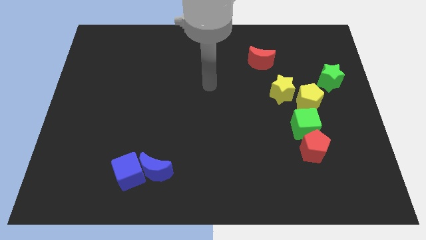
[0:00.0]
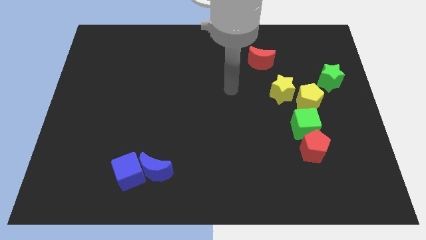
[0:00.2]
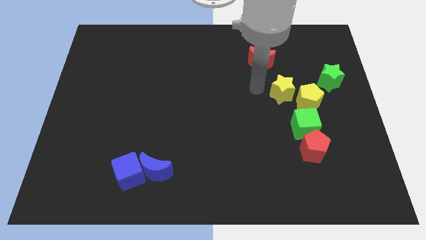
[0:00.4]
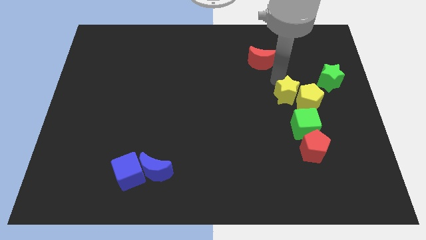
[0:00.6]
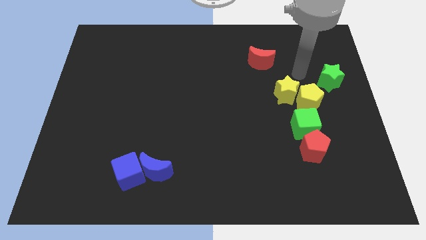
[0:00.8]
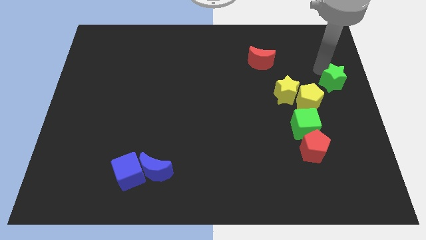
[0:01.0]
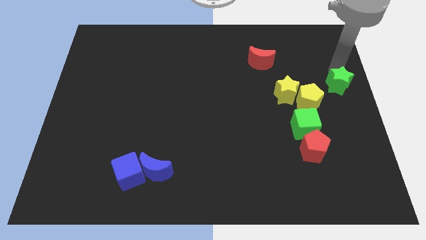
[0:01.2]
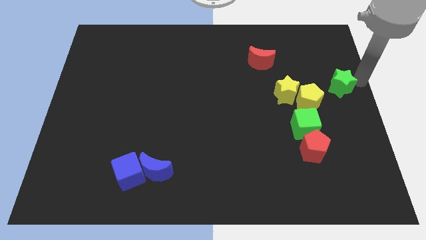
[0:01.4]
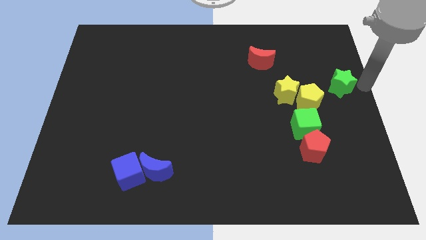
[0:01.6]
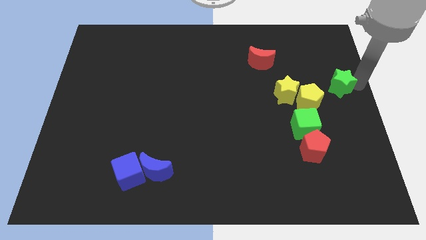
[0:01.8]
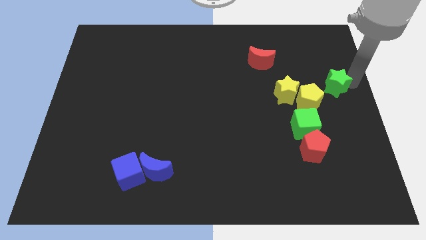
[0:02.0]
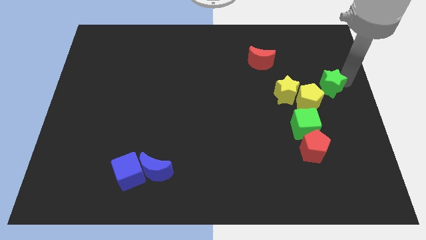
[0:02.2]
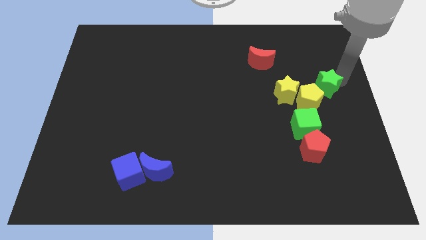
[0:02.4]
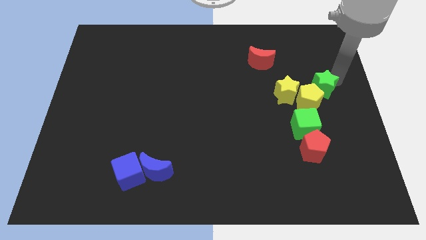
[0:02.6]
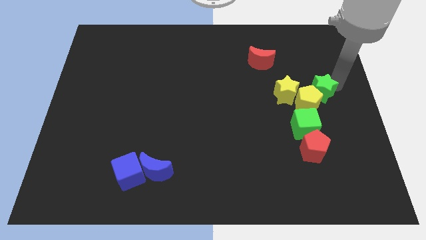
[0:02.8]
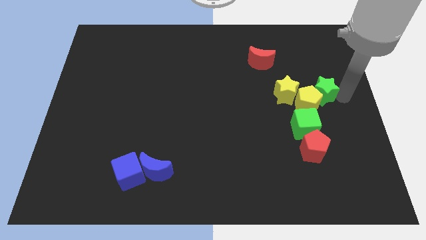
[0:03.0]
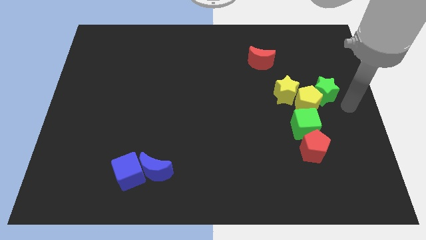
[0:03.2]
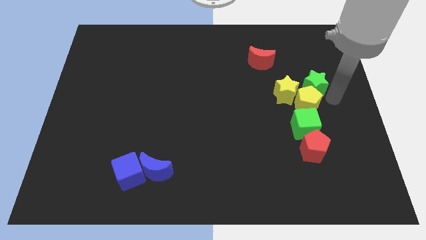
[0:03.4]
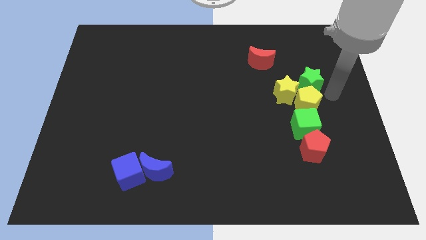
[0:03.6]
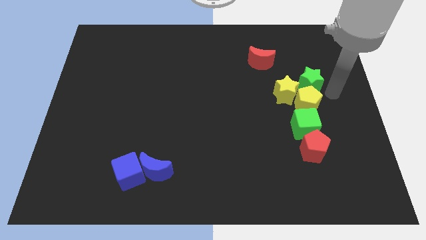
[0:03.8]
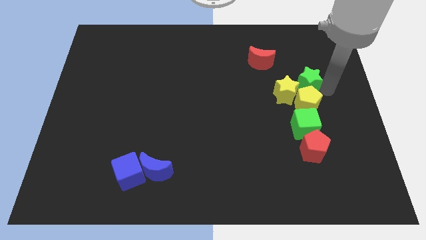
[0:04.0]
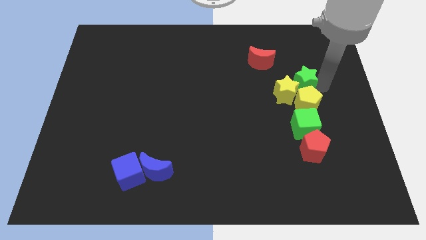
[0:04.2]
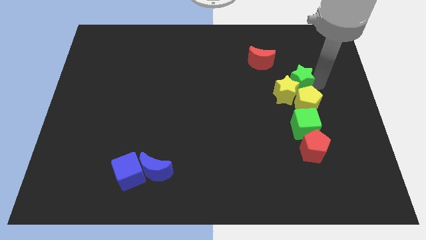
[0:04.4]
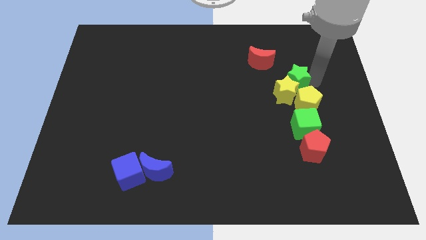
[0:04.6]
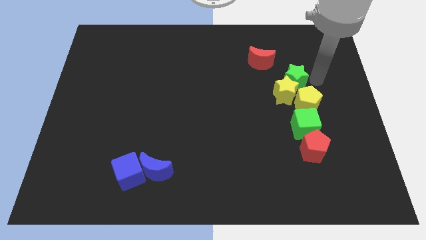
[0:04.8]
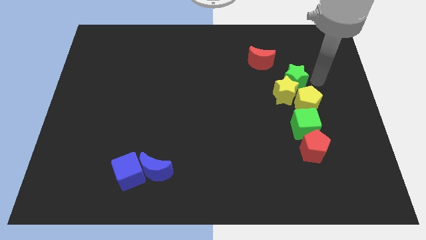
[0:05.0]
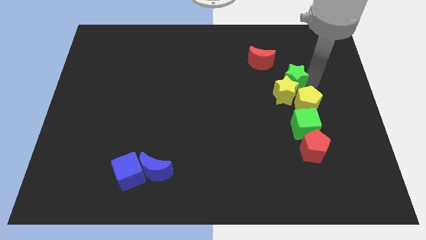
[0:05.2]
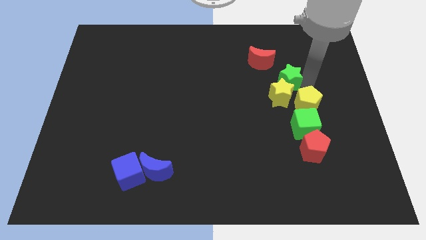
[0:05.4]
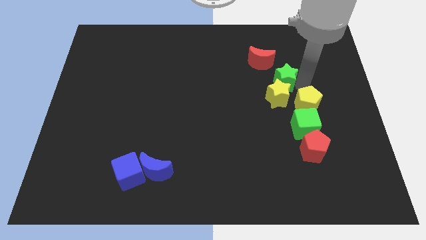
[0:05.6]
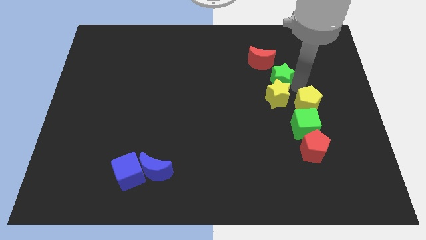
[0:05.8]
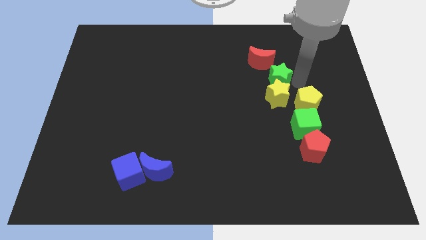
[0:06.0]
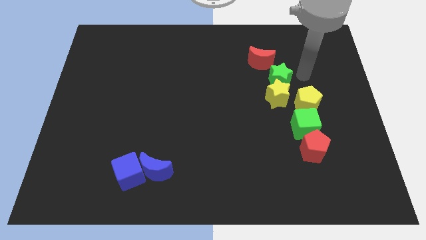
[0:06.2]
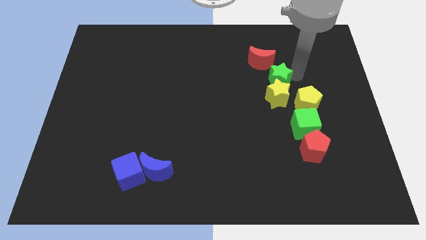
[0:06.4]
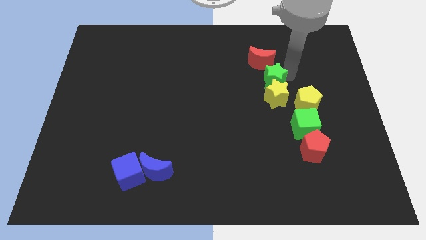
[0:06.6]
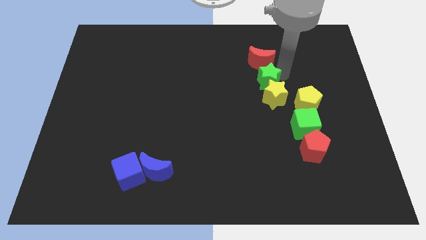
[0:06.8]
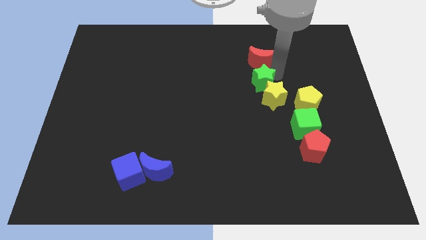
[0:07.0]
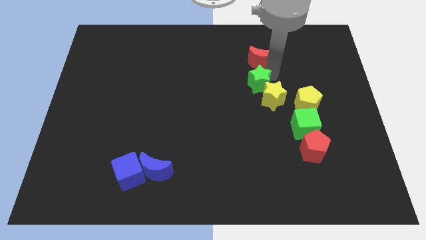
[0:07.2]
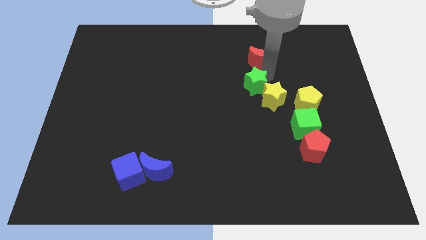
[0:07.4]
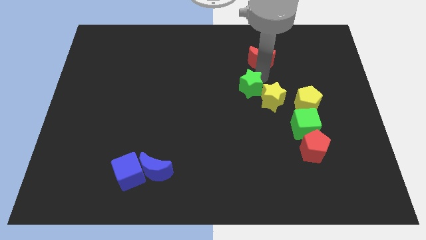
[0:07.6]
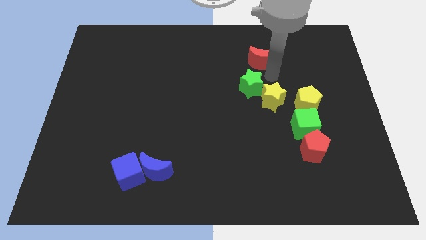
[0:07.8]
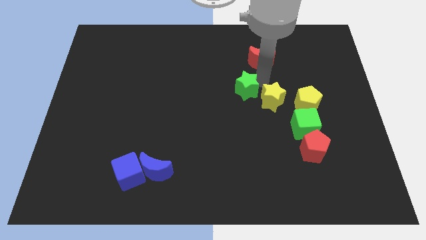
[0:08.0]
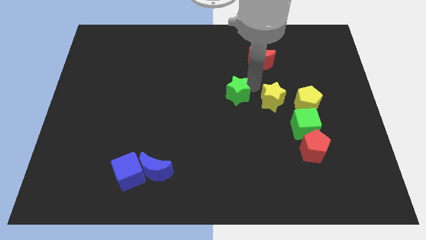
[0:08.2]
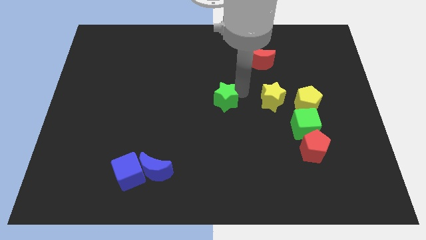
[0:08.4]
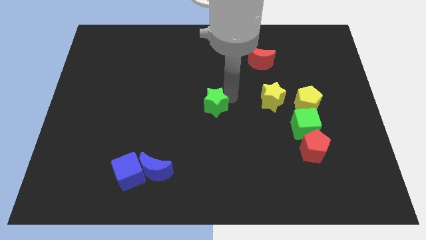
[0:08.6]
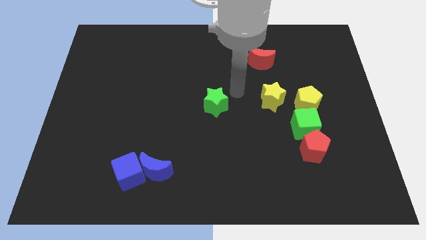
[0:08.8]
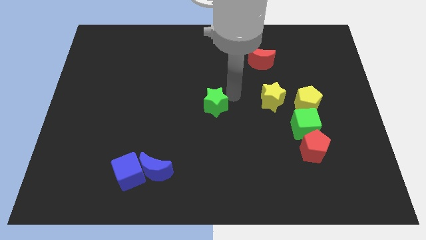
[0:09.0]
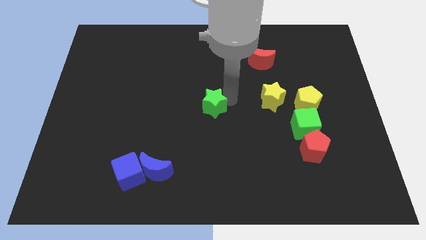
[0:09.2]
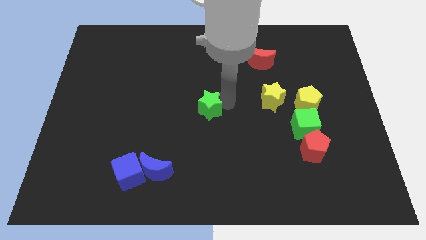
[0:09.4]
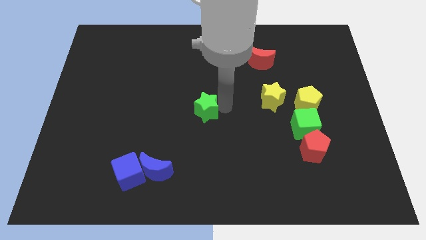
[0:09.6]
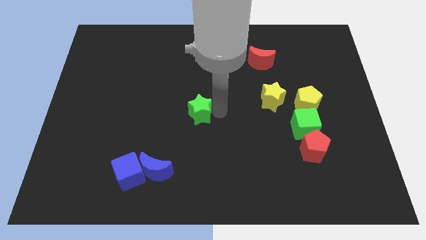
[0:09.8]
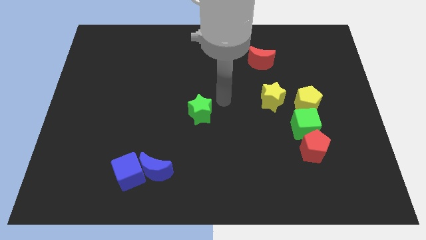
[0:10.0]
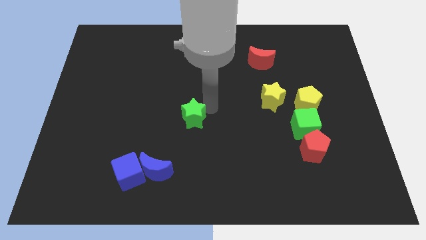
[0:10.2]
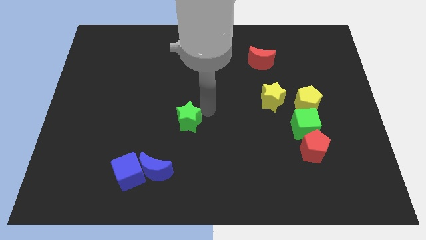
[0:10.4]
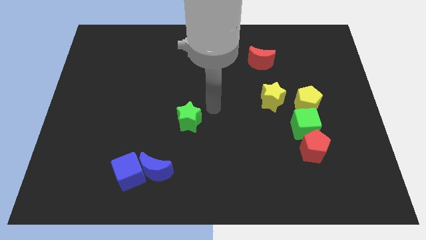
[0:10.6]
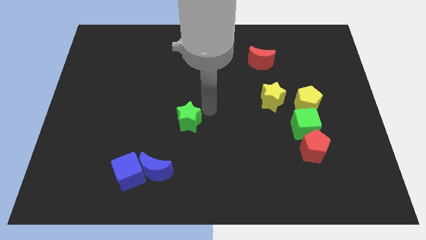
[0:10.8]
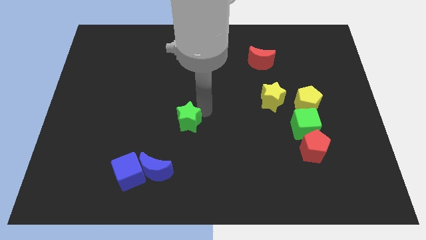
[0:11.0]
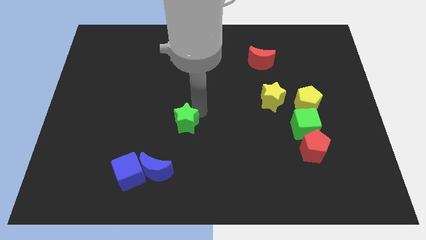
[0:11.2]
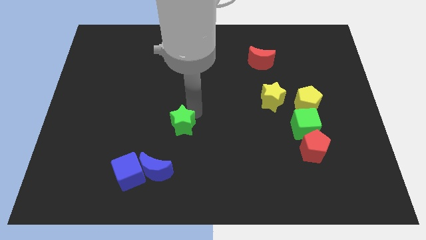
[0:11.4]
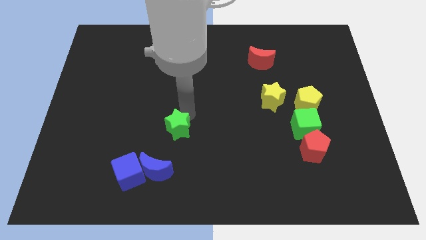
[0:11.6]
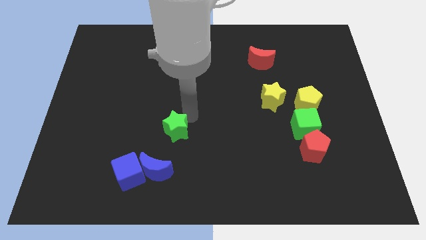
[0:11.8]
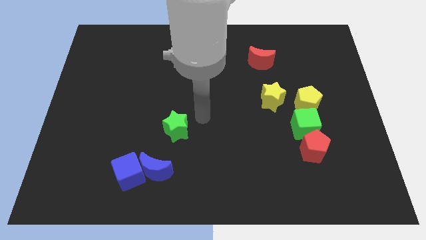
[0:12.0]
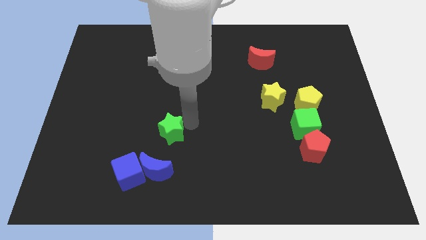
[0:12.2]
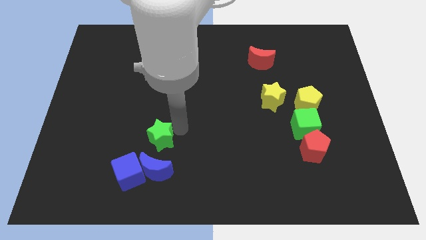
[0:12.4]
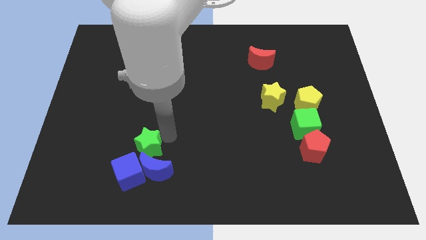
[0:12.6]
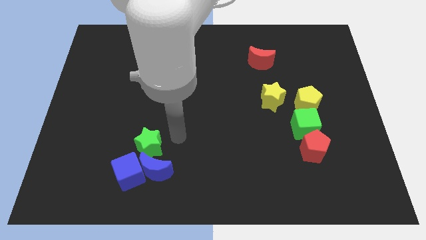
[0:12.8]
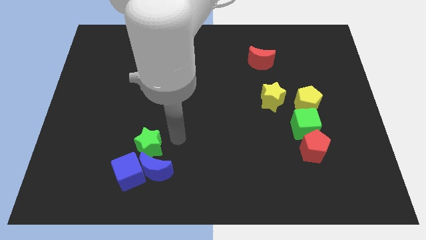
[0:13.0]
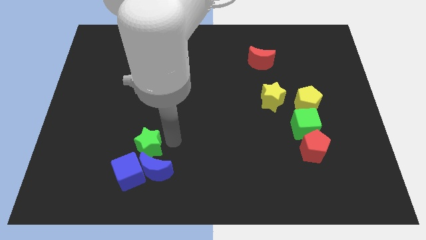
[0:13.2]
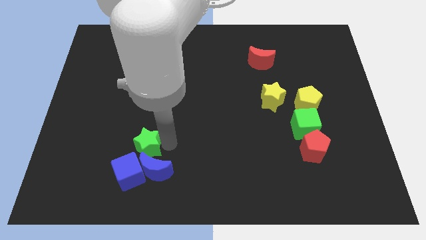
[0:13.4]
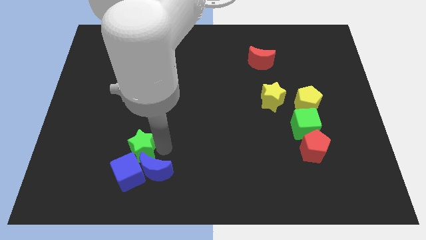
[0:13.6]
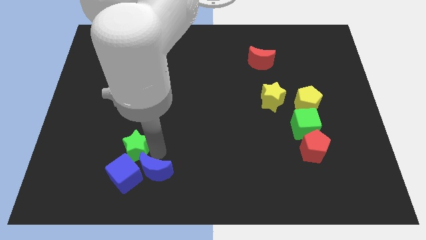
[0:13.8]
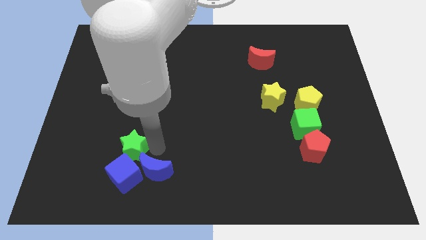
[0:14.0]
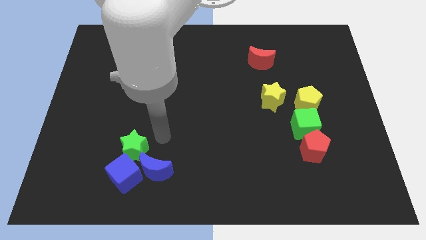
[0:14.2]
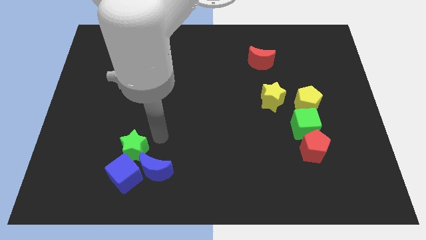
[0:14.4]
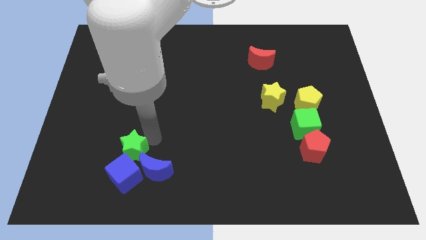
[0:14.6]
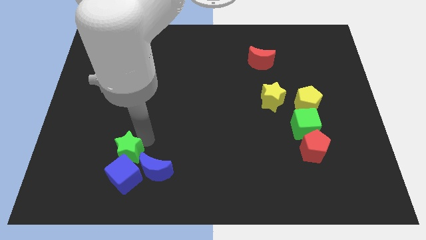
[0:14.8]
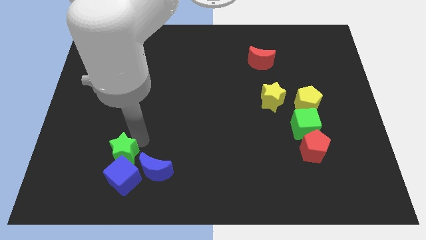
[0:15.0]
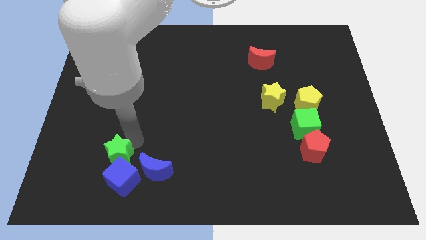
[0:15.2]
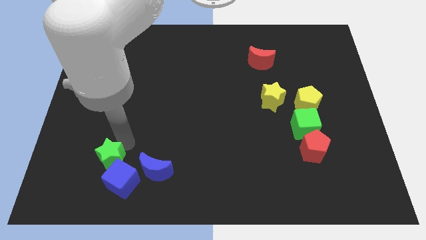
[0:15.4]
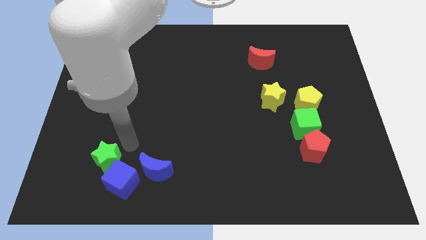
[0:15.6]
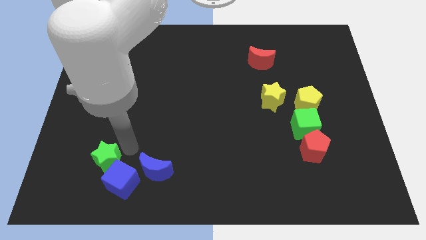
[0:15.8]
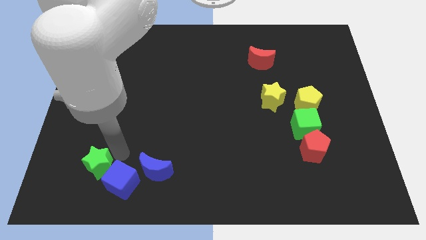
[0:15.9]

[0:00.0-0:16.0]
push the green star to the left side of the blue cube
